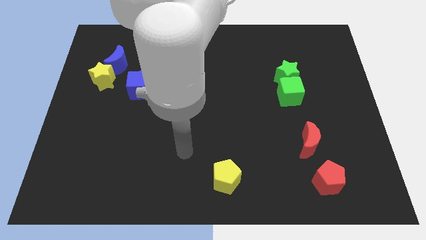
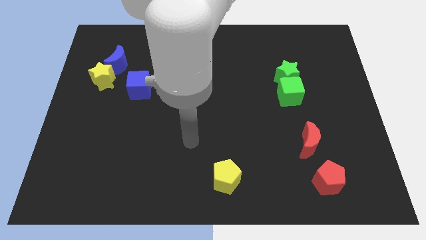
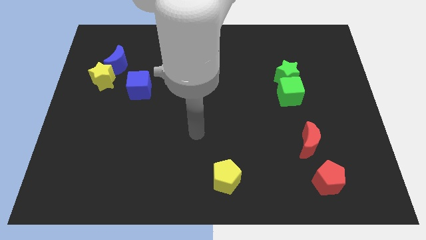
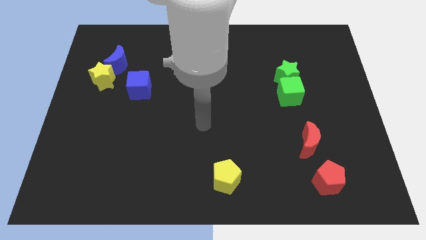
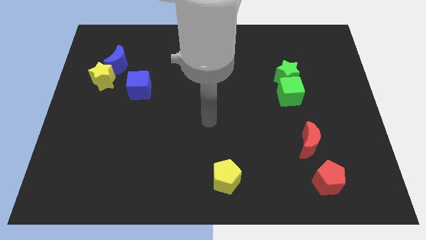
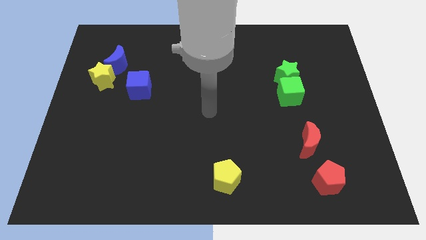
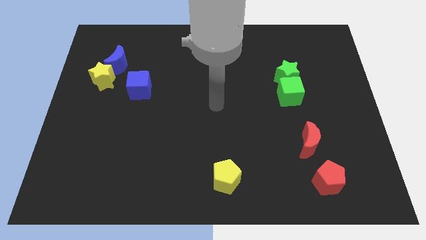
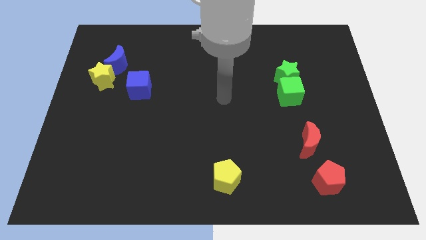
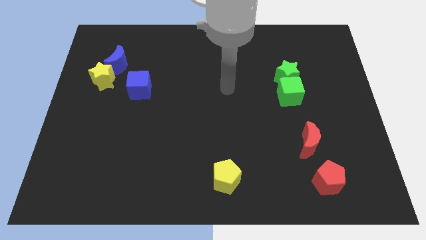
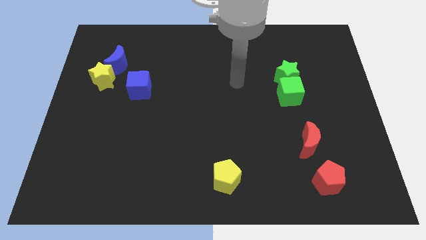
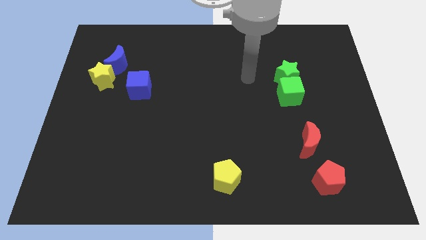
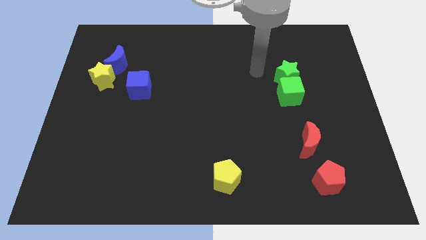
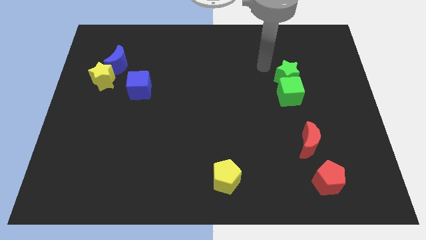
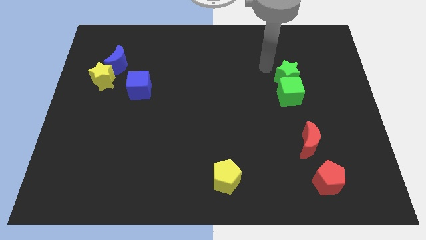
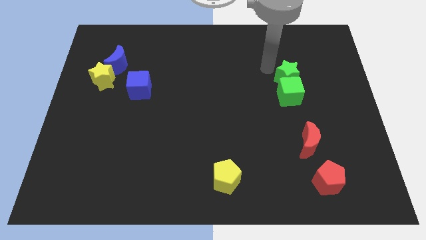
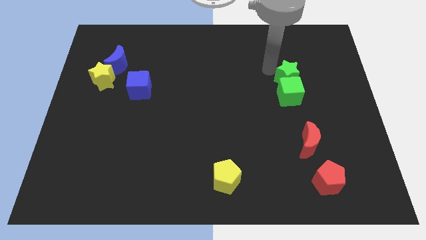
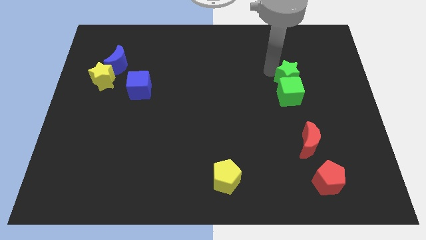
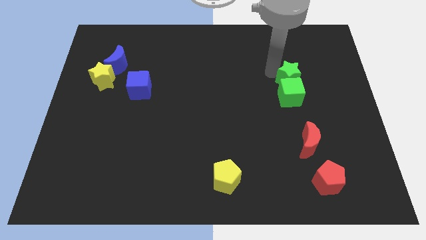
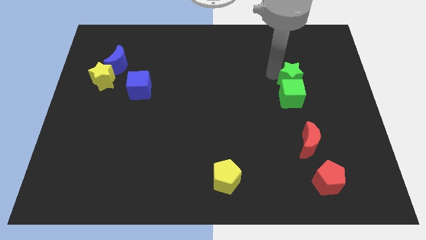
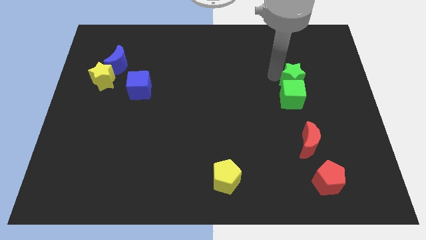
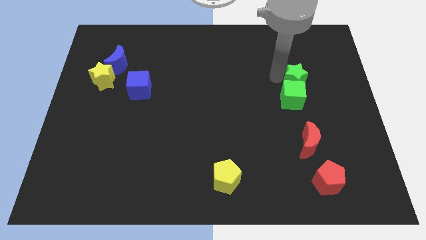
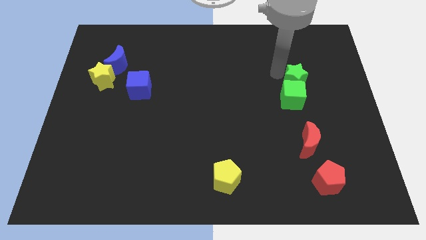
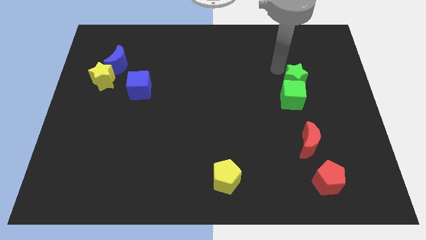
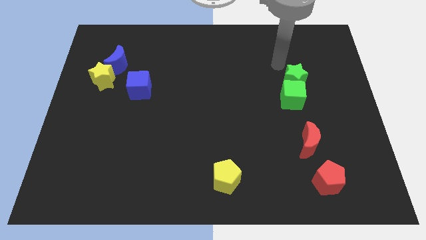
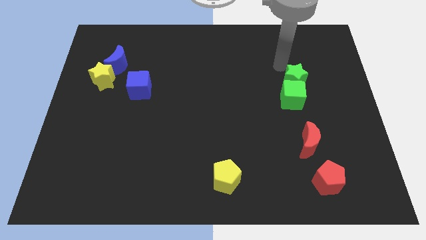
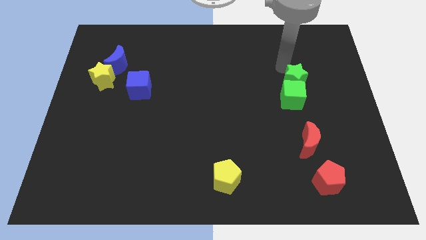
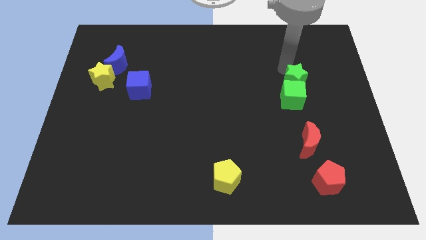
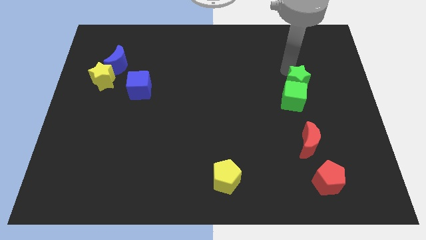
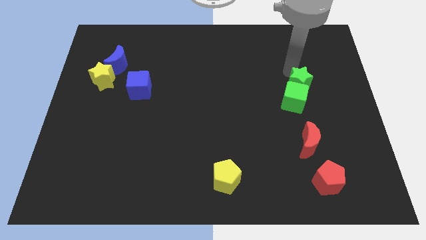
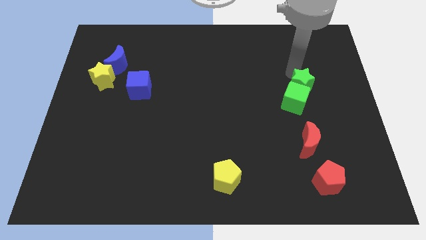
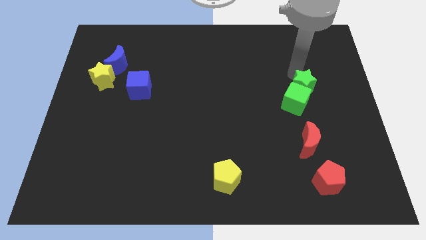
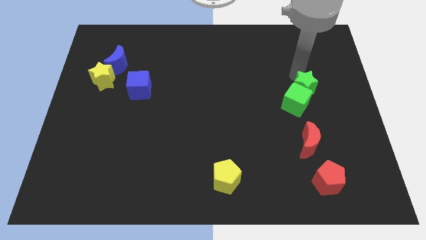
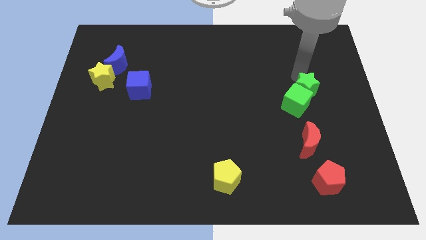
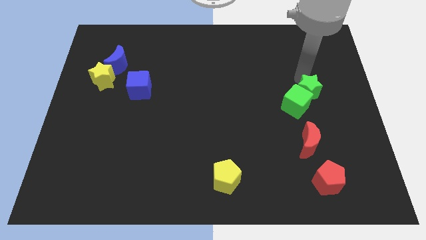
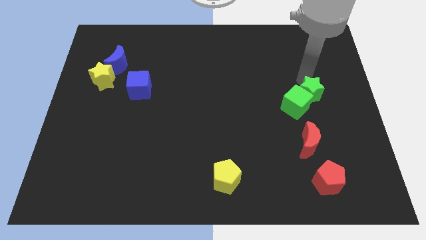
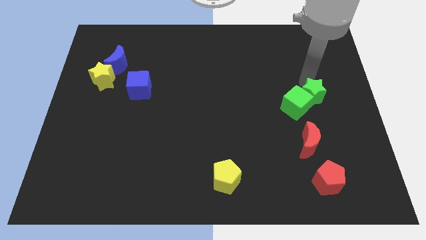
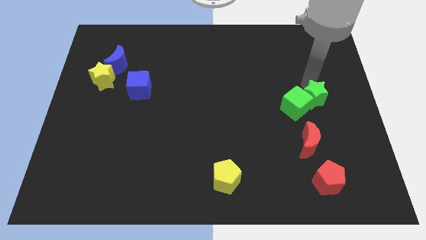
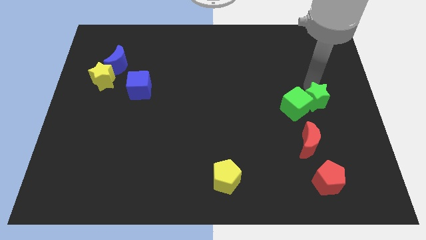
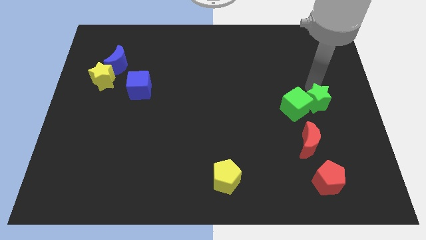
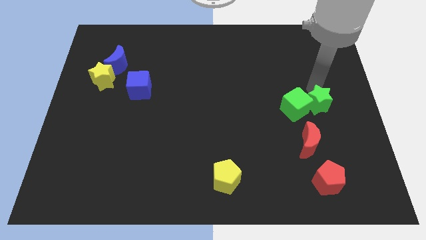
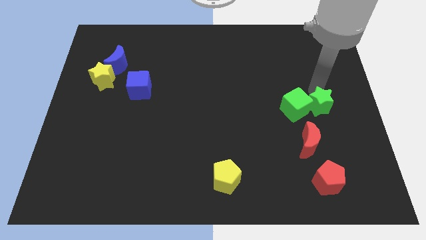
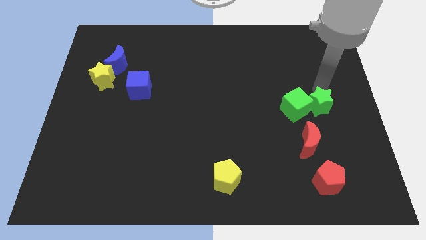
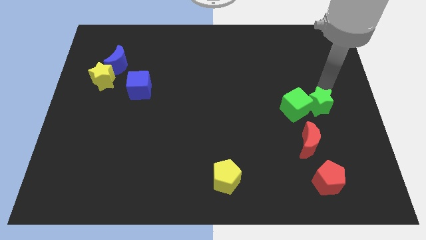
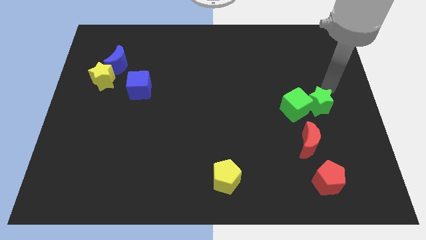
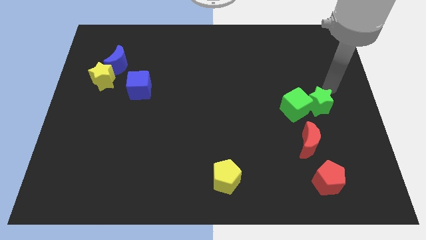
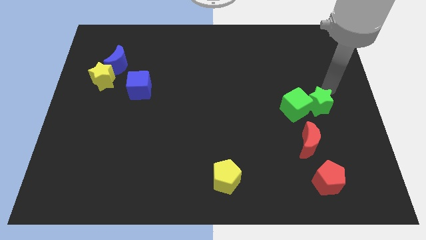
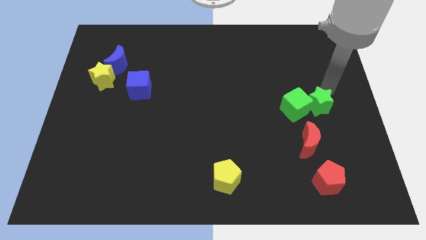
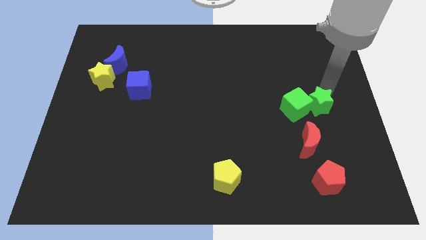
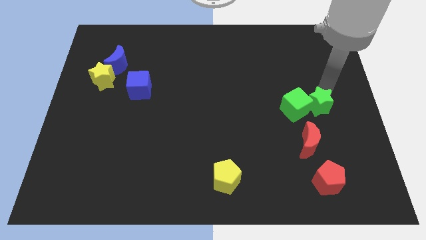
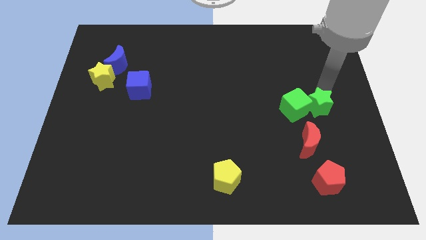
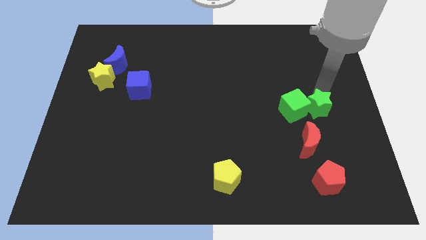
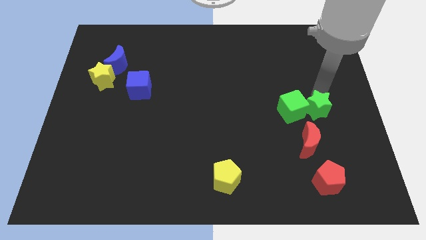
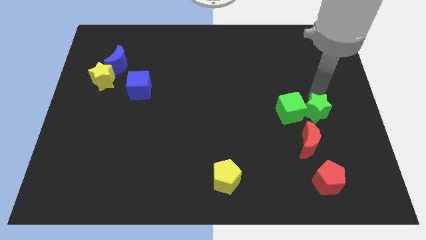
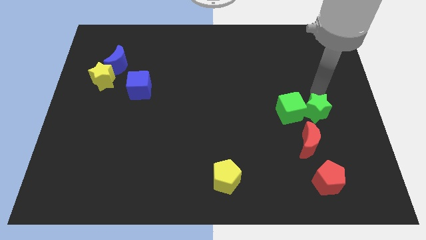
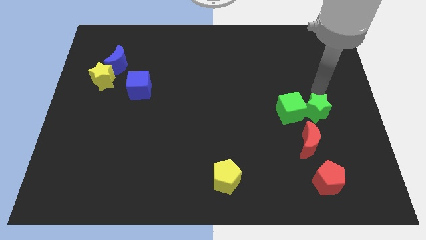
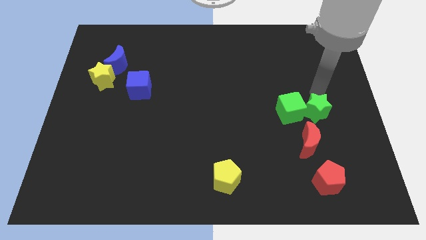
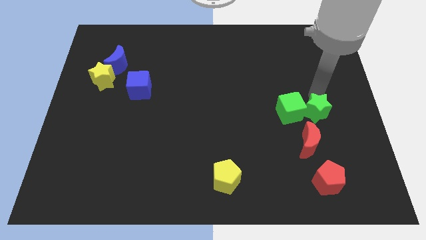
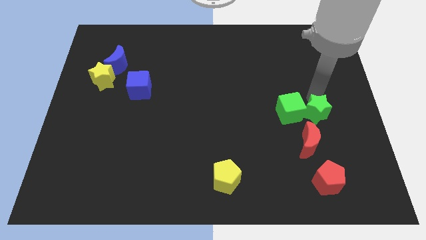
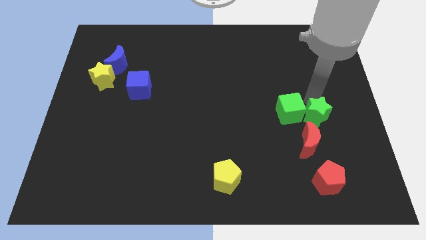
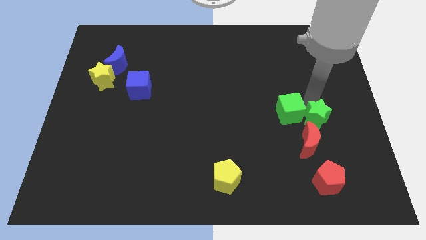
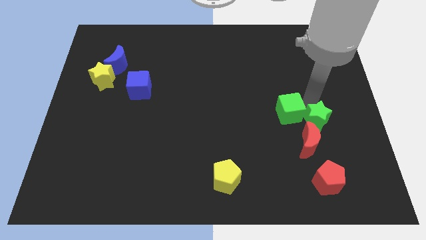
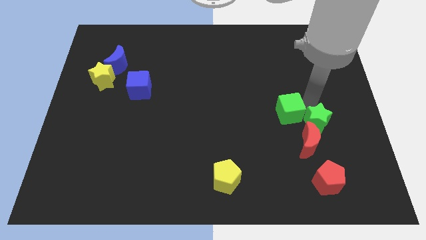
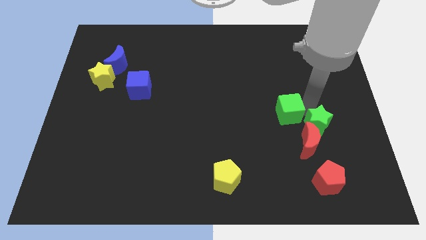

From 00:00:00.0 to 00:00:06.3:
push the green star next to the red moon
